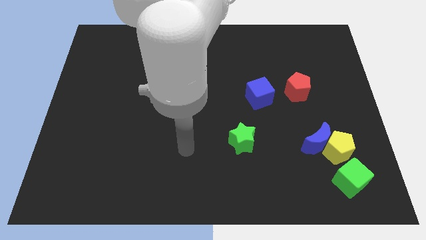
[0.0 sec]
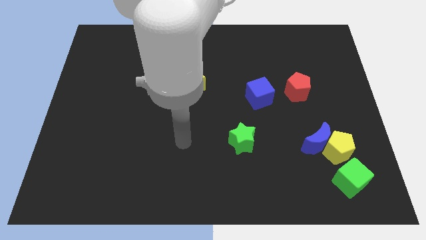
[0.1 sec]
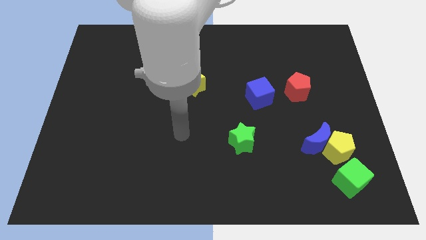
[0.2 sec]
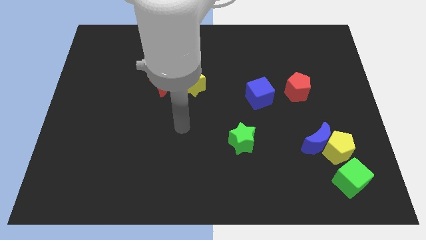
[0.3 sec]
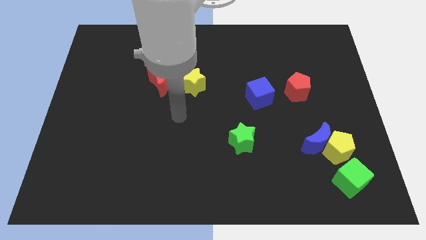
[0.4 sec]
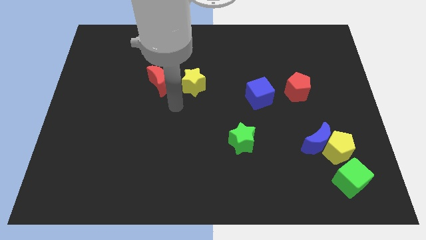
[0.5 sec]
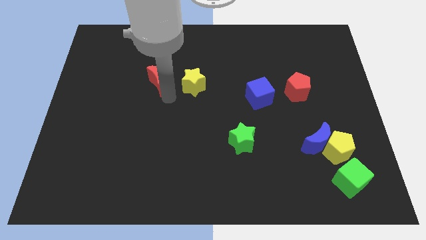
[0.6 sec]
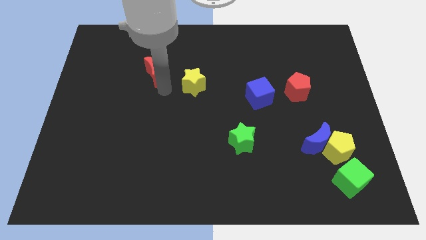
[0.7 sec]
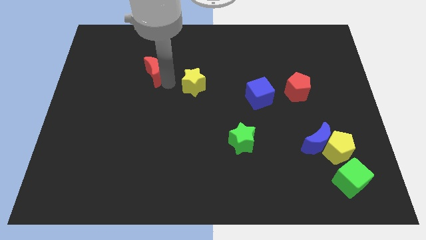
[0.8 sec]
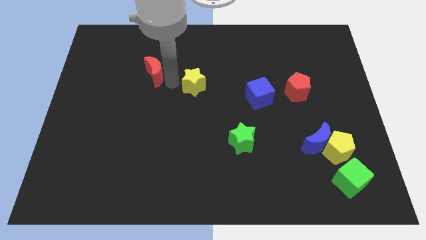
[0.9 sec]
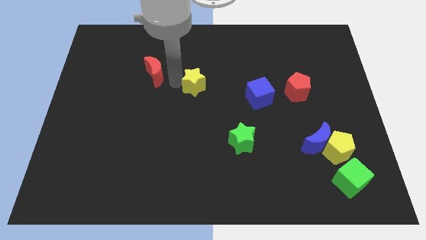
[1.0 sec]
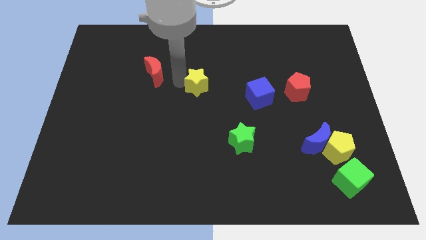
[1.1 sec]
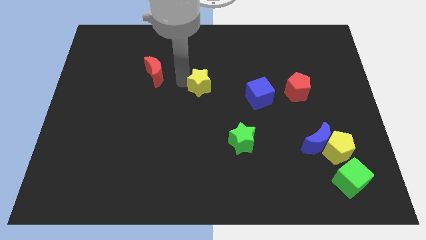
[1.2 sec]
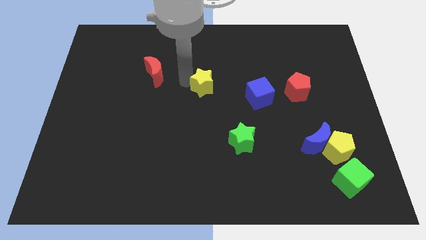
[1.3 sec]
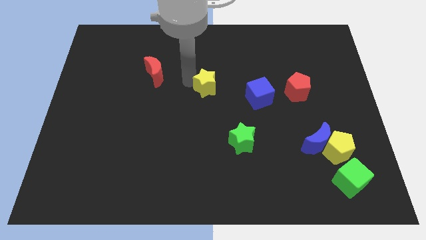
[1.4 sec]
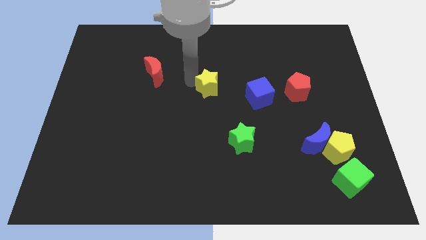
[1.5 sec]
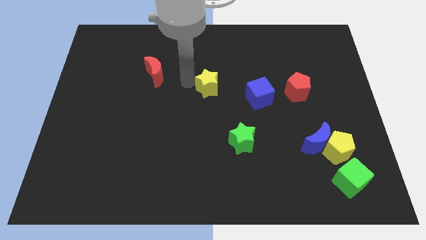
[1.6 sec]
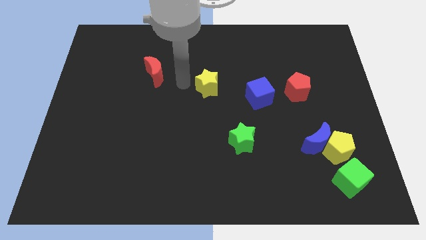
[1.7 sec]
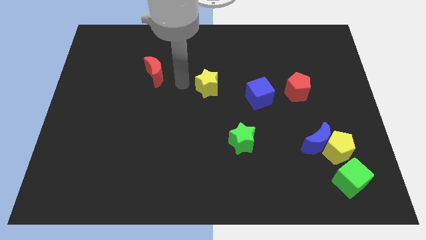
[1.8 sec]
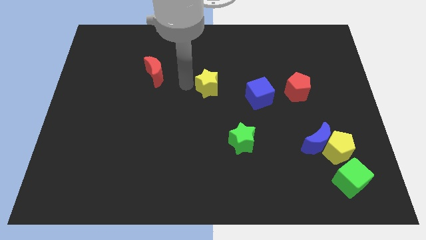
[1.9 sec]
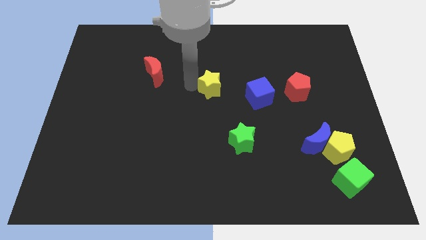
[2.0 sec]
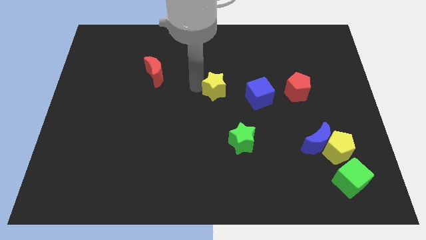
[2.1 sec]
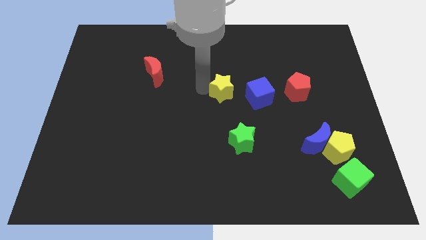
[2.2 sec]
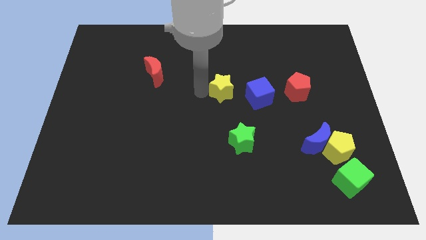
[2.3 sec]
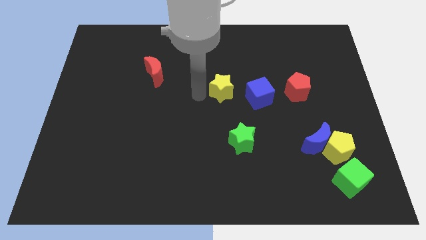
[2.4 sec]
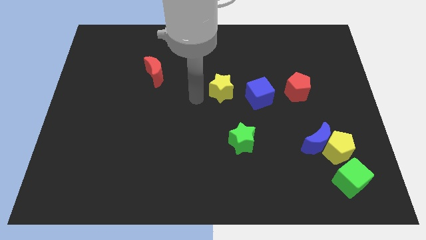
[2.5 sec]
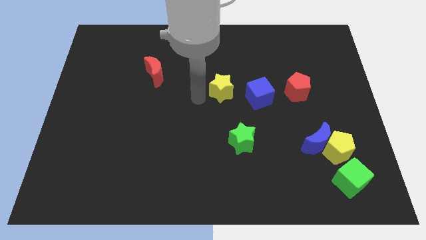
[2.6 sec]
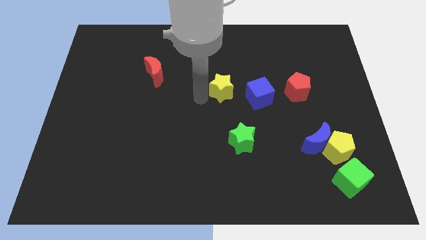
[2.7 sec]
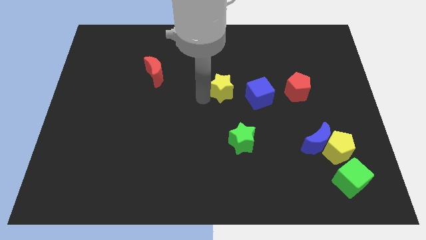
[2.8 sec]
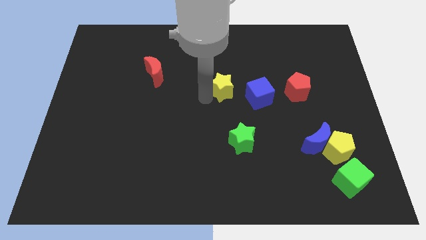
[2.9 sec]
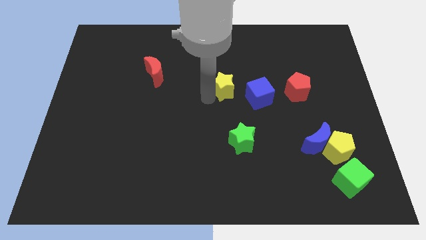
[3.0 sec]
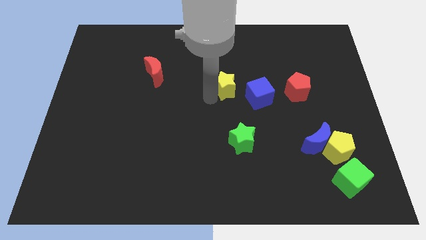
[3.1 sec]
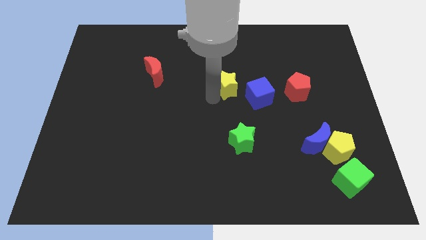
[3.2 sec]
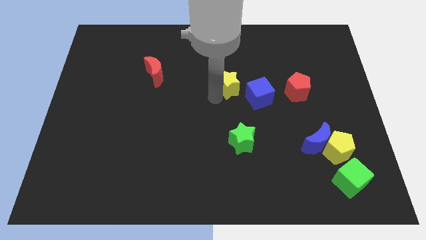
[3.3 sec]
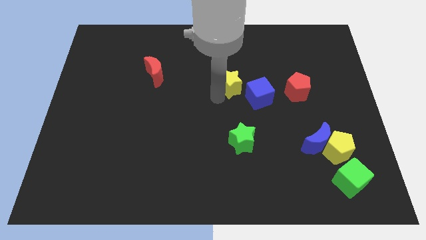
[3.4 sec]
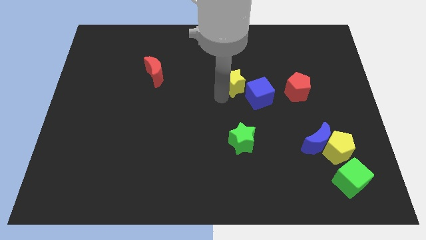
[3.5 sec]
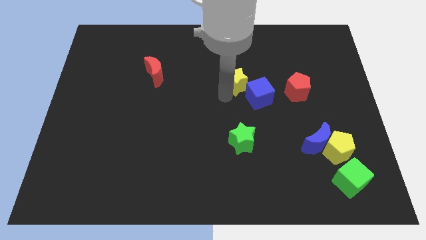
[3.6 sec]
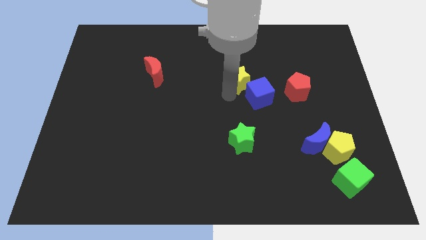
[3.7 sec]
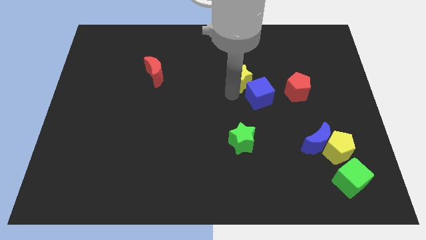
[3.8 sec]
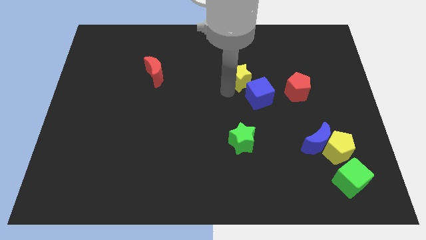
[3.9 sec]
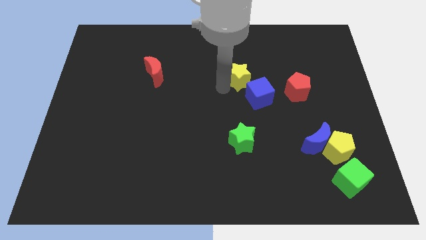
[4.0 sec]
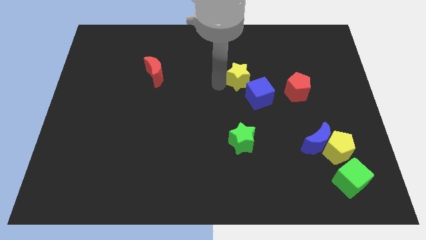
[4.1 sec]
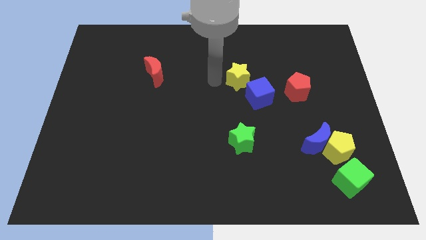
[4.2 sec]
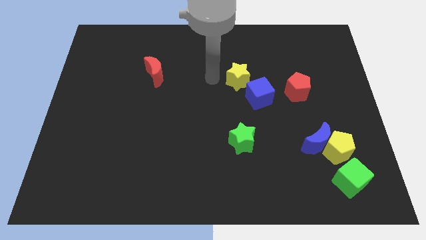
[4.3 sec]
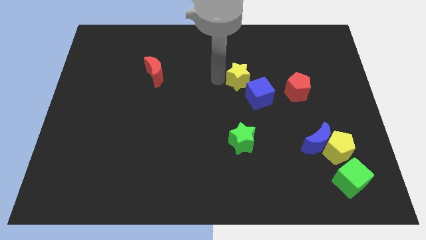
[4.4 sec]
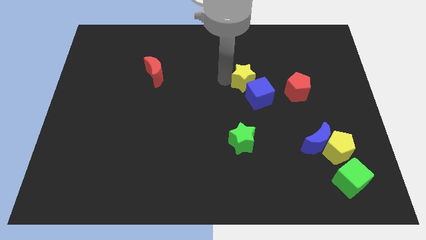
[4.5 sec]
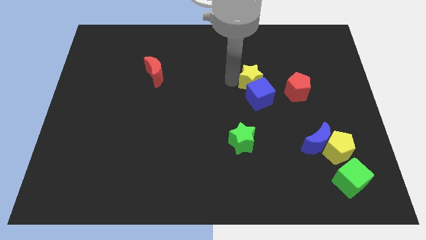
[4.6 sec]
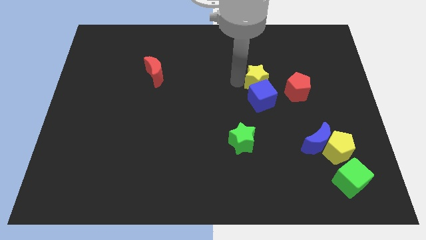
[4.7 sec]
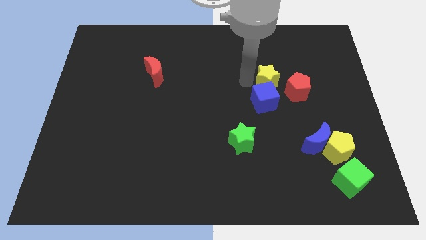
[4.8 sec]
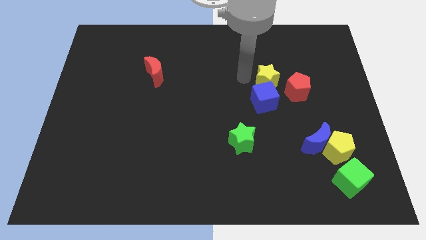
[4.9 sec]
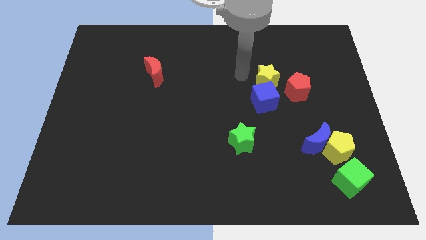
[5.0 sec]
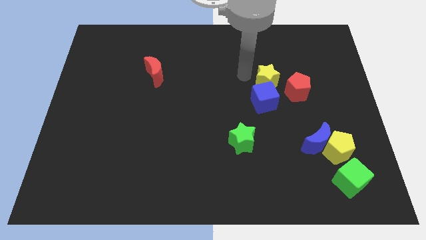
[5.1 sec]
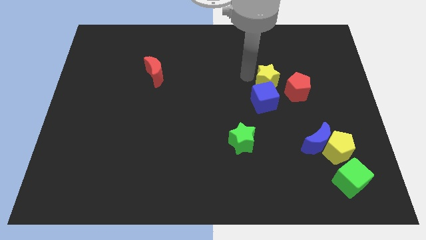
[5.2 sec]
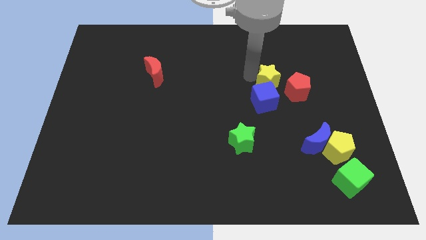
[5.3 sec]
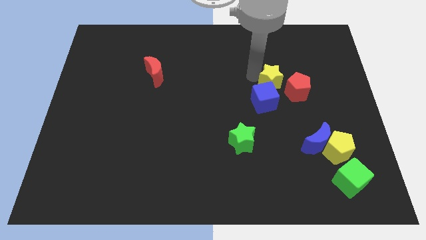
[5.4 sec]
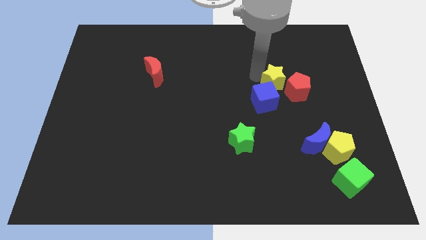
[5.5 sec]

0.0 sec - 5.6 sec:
push the yellow star towards the red pentagon

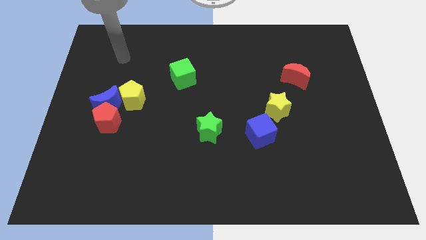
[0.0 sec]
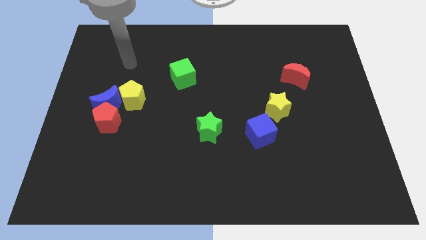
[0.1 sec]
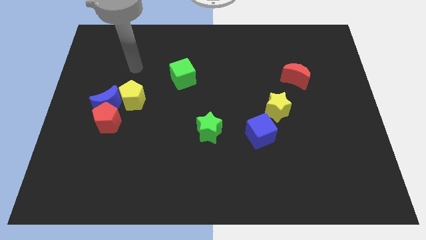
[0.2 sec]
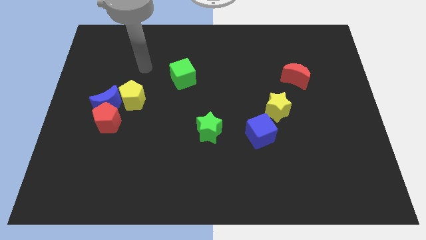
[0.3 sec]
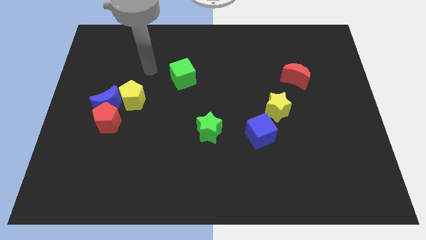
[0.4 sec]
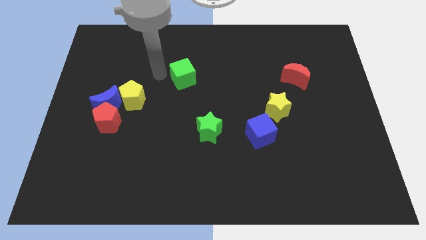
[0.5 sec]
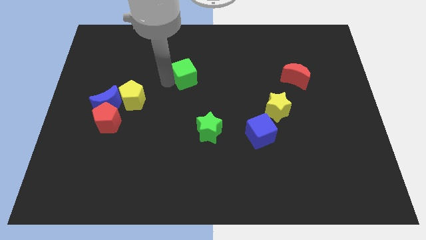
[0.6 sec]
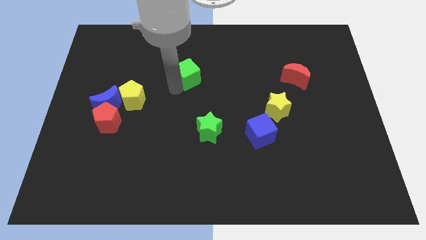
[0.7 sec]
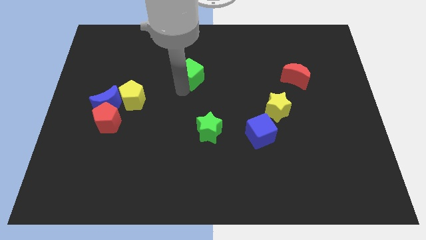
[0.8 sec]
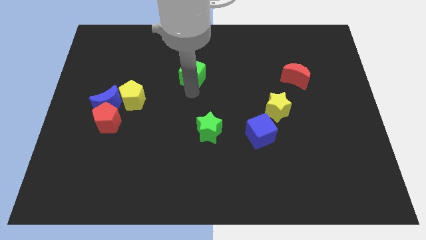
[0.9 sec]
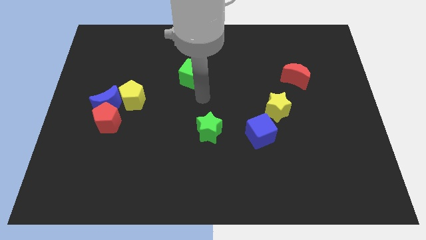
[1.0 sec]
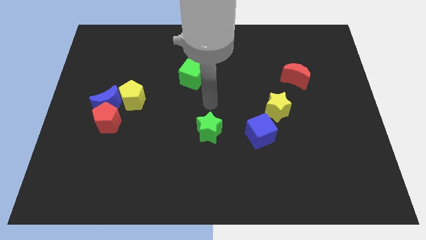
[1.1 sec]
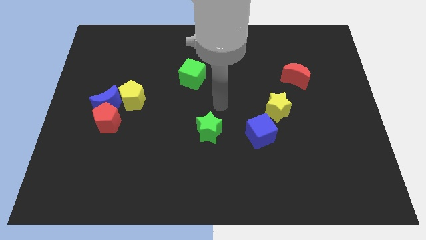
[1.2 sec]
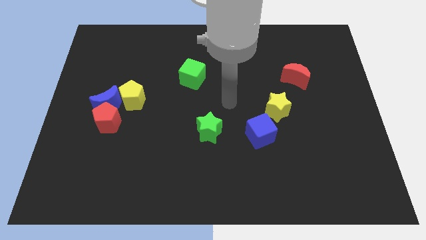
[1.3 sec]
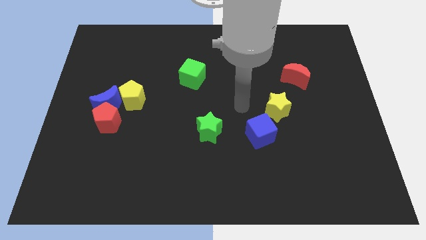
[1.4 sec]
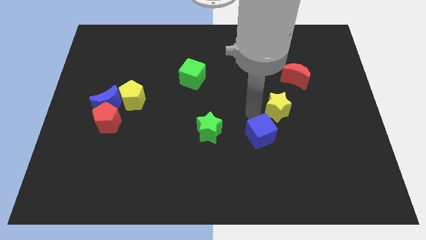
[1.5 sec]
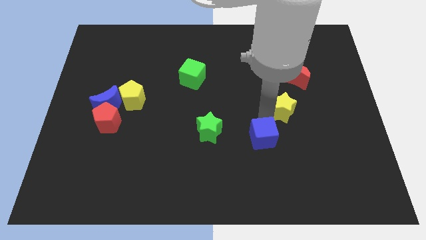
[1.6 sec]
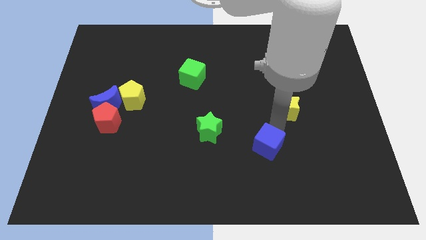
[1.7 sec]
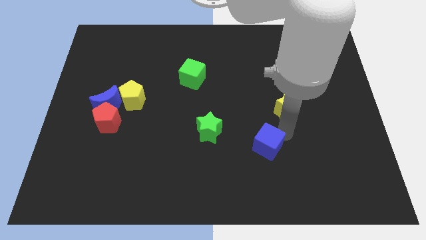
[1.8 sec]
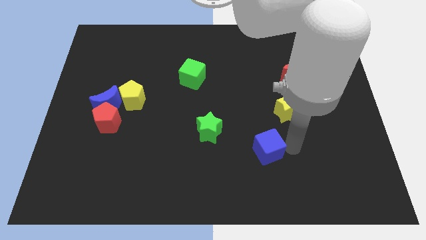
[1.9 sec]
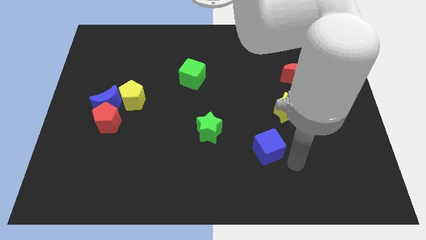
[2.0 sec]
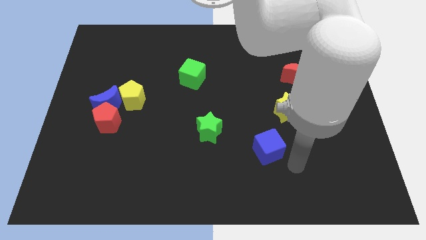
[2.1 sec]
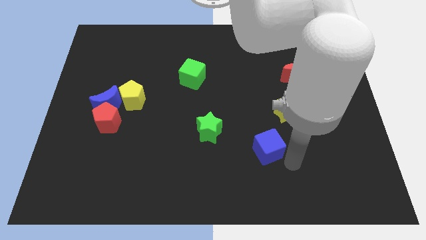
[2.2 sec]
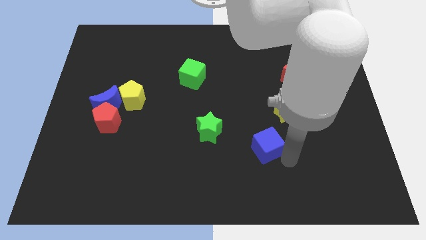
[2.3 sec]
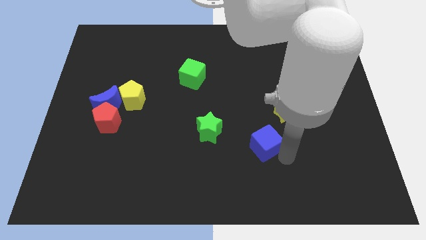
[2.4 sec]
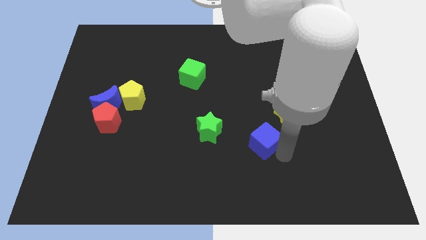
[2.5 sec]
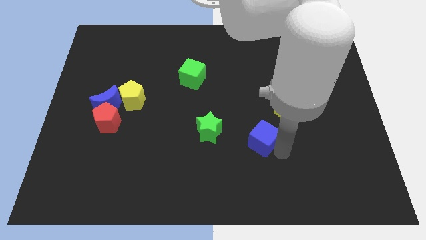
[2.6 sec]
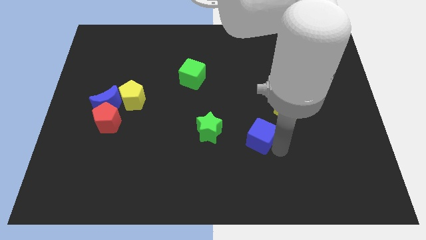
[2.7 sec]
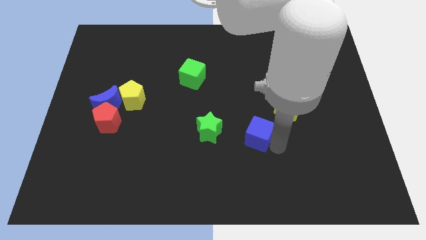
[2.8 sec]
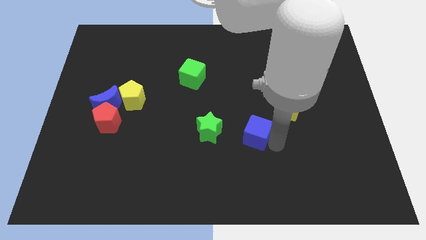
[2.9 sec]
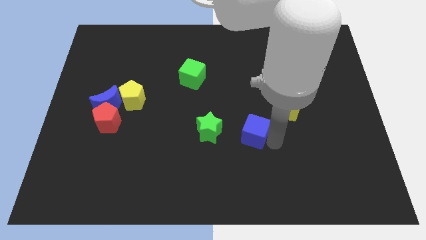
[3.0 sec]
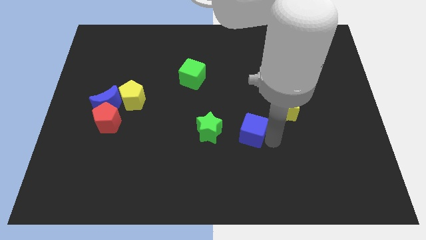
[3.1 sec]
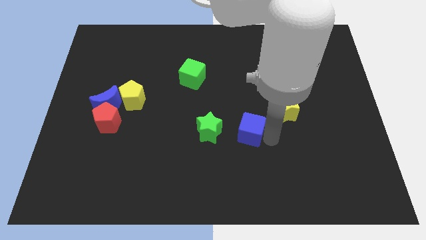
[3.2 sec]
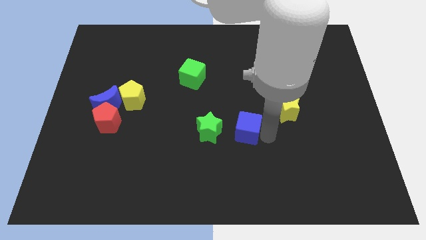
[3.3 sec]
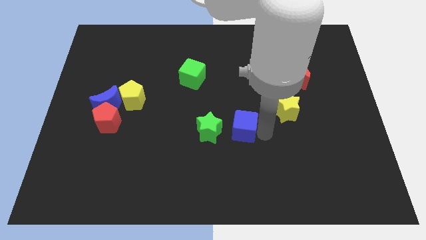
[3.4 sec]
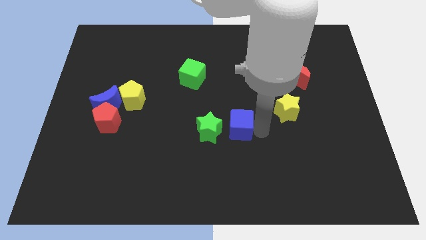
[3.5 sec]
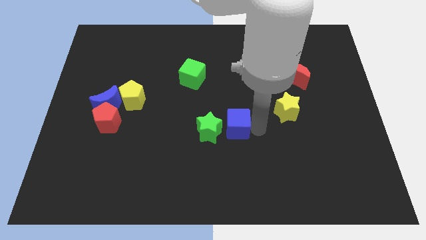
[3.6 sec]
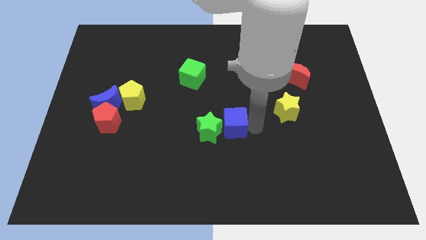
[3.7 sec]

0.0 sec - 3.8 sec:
push the blue cube close to the green star
